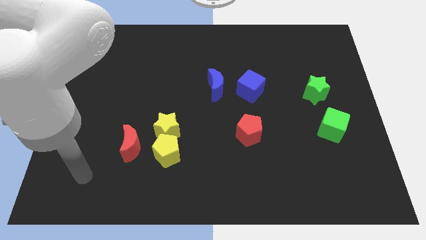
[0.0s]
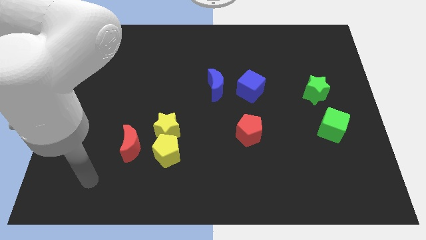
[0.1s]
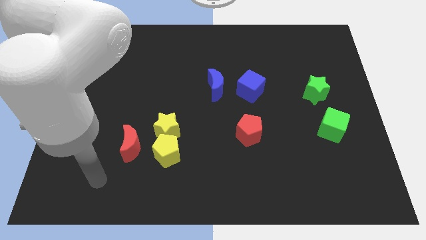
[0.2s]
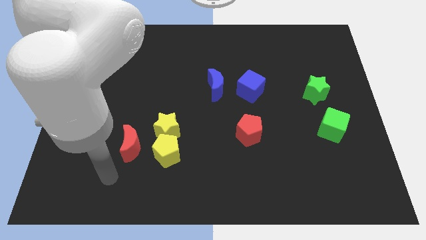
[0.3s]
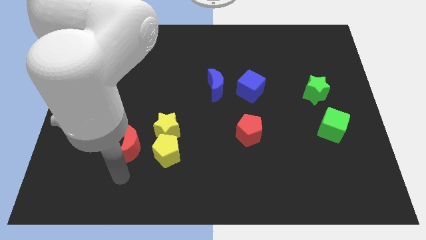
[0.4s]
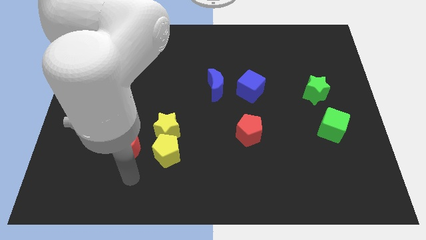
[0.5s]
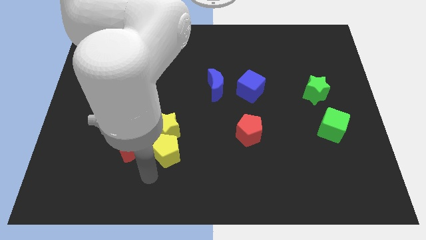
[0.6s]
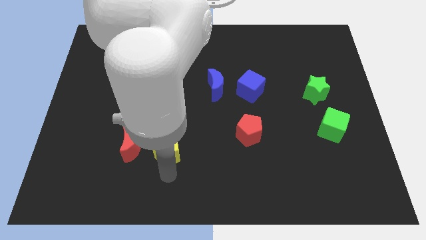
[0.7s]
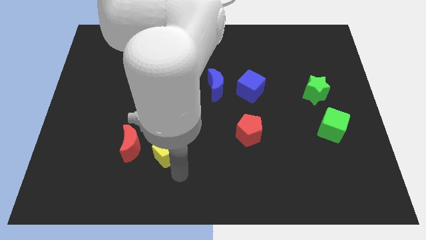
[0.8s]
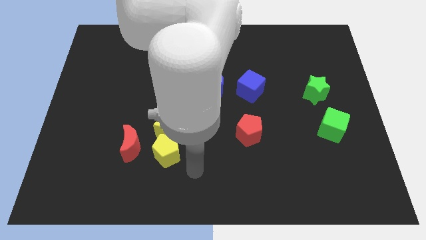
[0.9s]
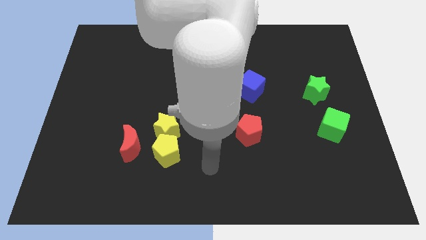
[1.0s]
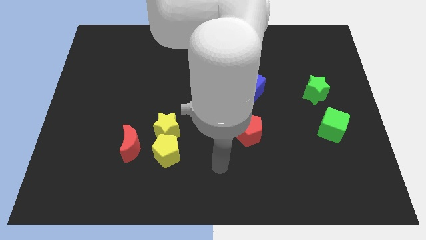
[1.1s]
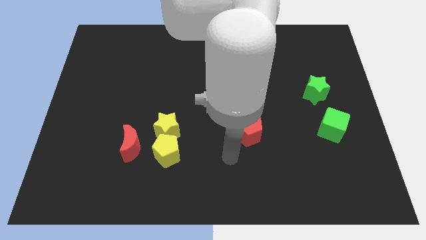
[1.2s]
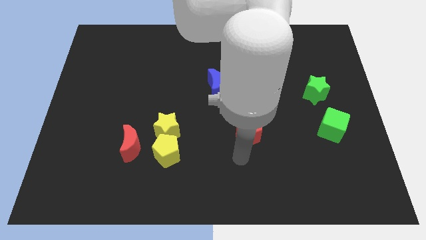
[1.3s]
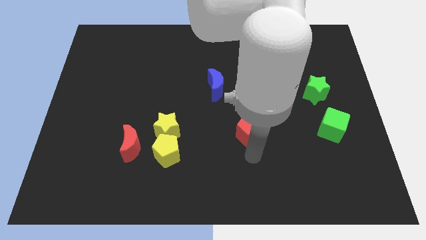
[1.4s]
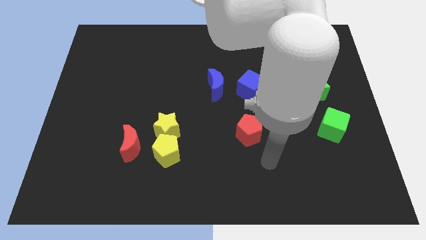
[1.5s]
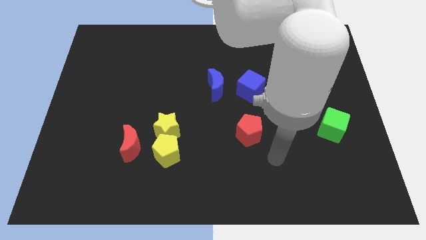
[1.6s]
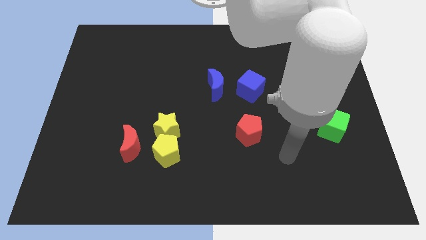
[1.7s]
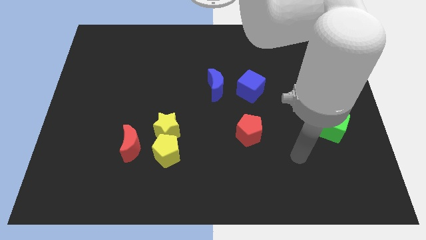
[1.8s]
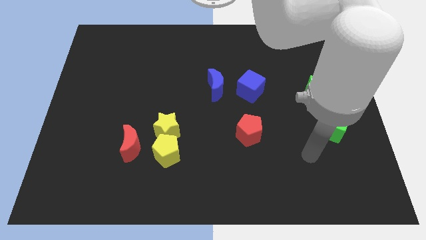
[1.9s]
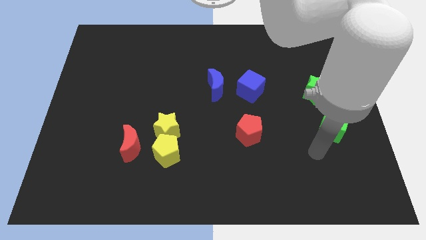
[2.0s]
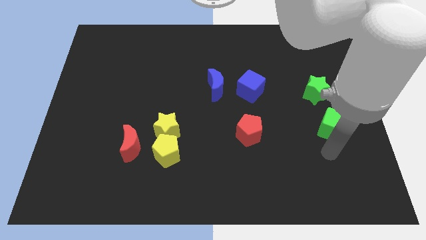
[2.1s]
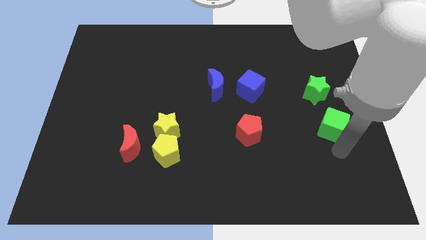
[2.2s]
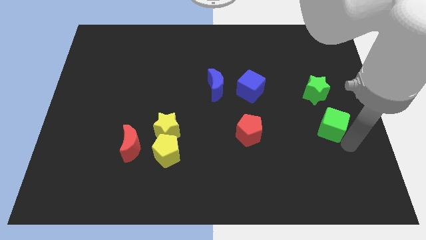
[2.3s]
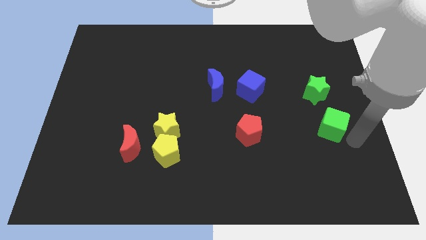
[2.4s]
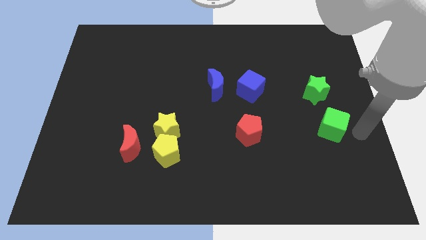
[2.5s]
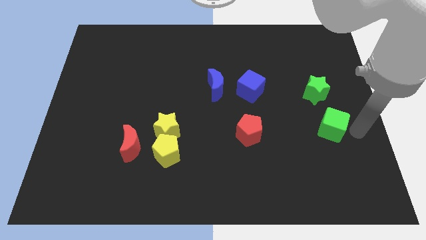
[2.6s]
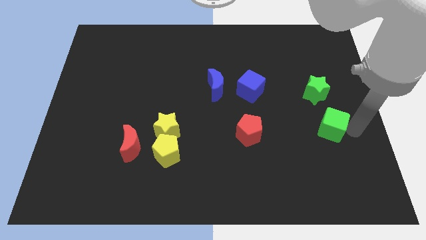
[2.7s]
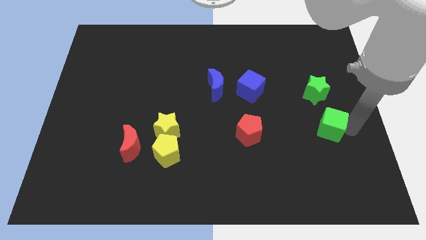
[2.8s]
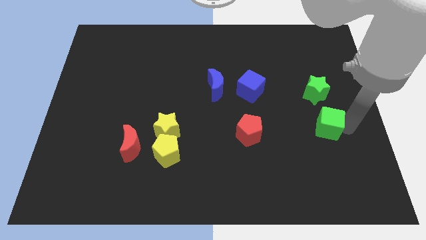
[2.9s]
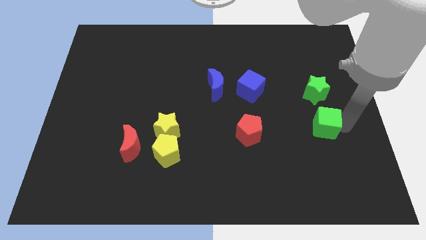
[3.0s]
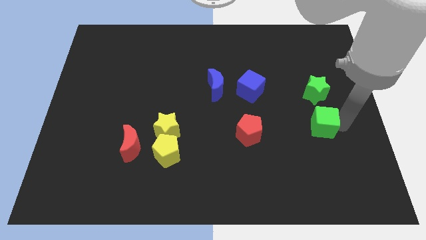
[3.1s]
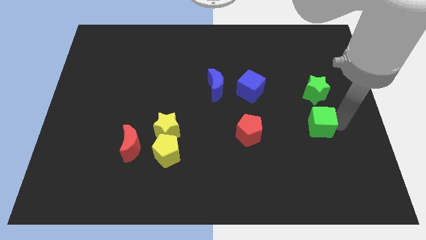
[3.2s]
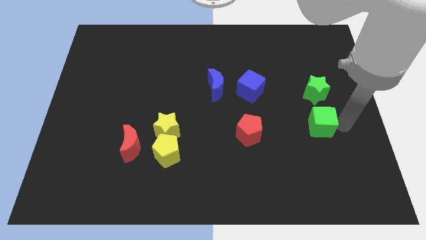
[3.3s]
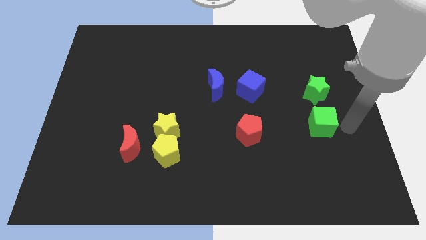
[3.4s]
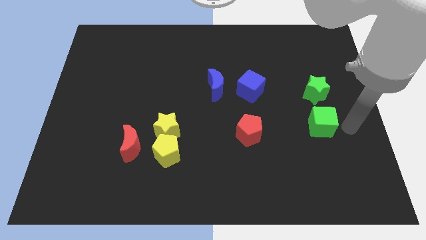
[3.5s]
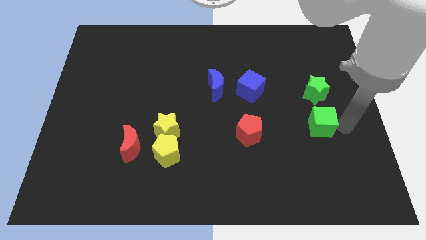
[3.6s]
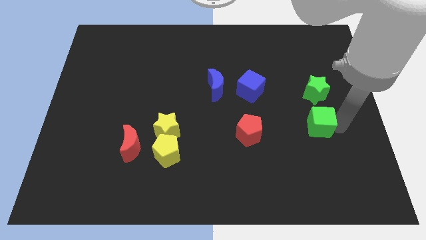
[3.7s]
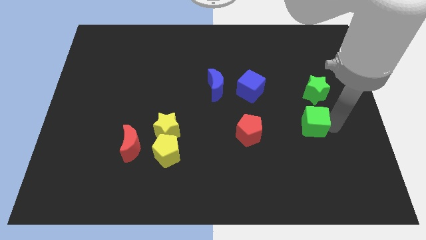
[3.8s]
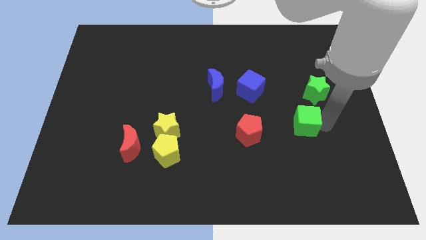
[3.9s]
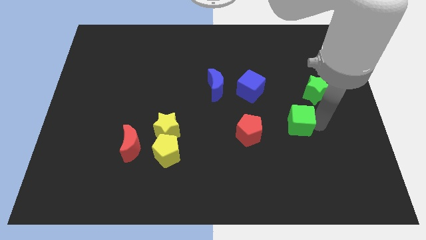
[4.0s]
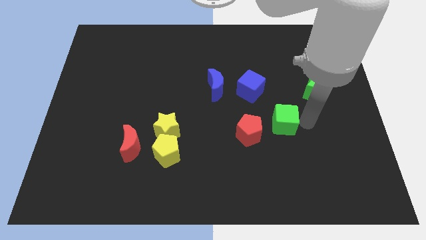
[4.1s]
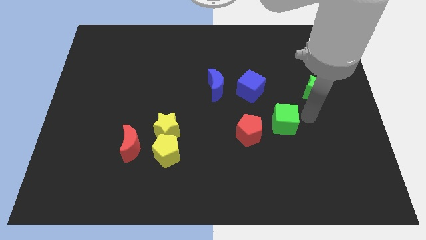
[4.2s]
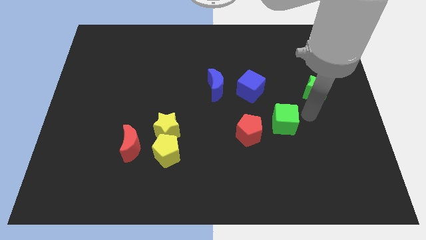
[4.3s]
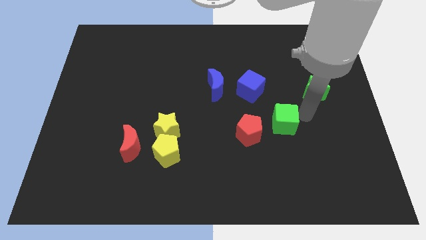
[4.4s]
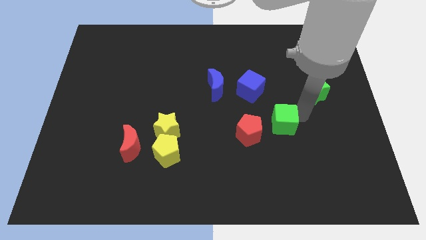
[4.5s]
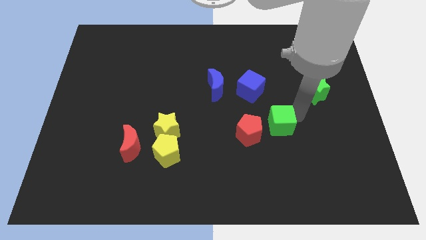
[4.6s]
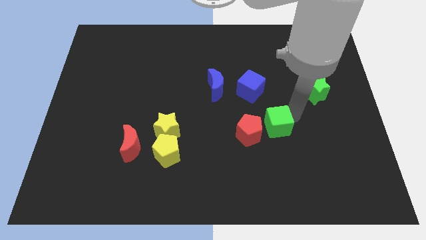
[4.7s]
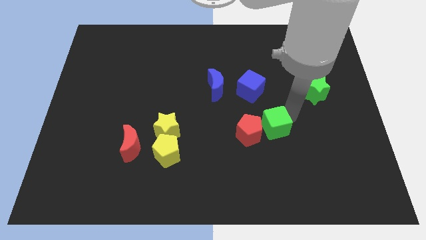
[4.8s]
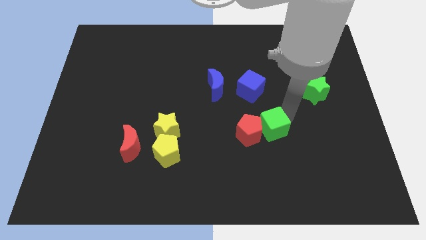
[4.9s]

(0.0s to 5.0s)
move the green cube towards the red pentagon

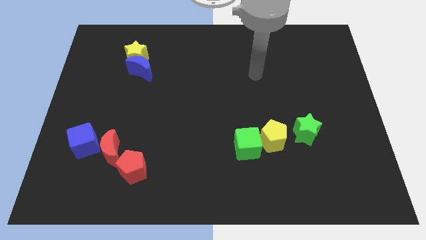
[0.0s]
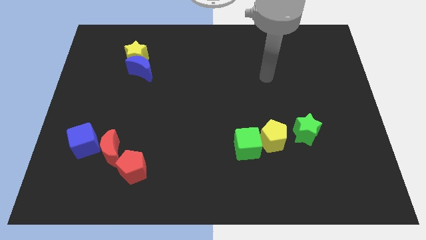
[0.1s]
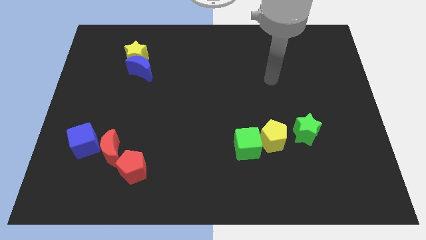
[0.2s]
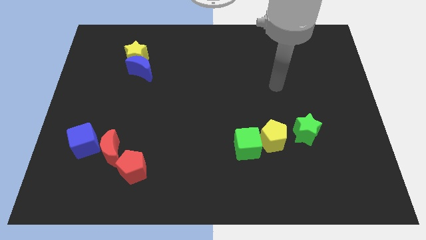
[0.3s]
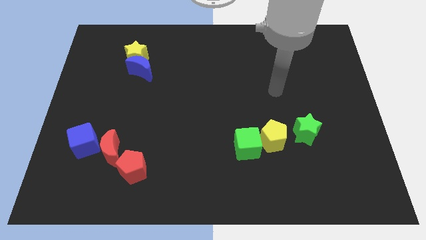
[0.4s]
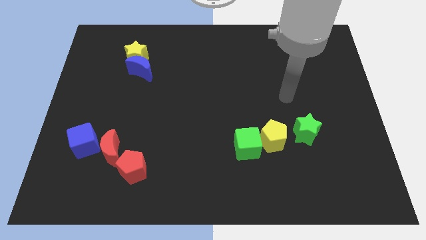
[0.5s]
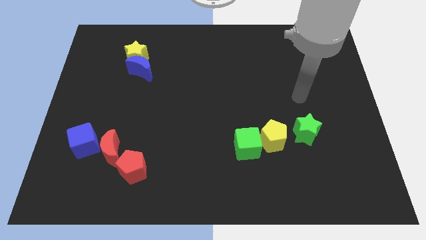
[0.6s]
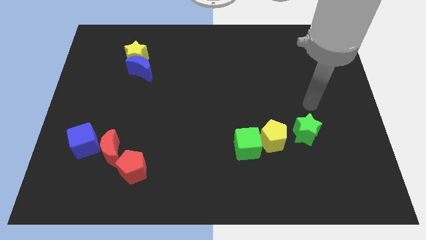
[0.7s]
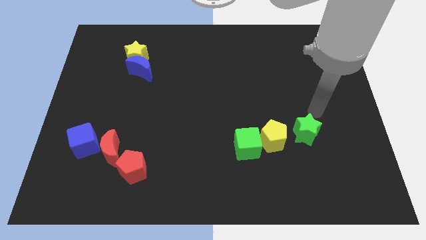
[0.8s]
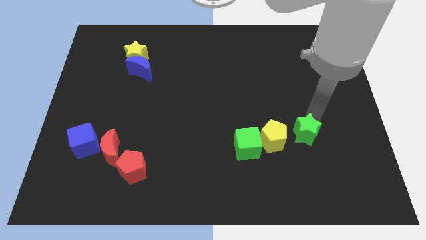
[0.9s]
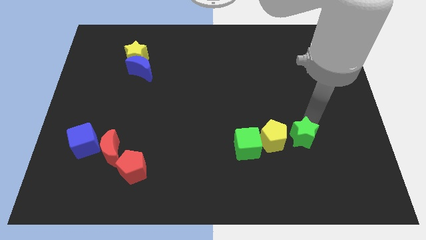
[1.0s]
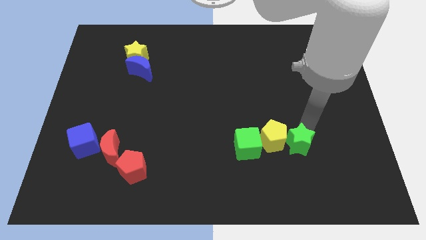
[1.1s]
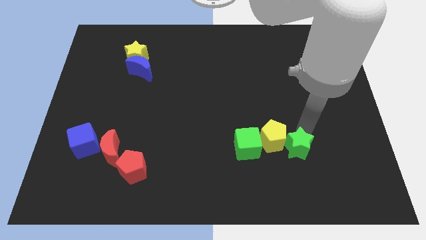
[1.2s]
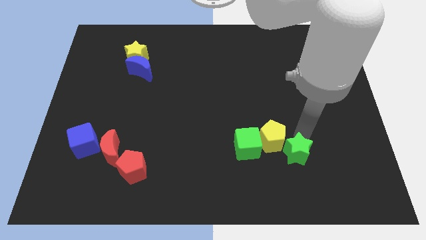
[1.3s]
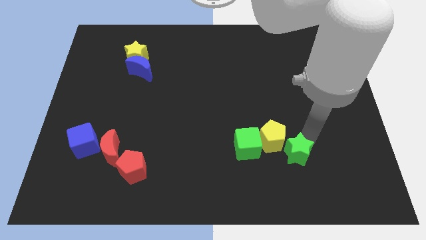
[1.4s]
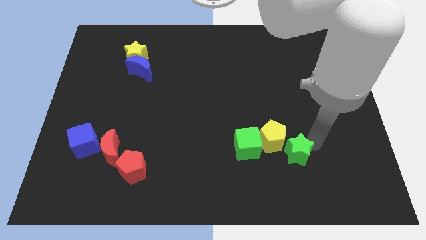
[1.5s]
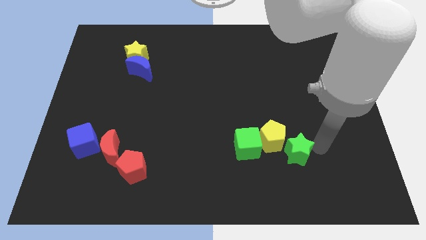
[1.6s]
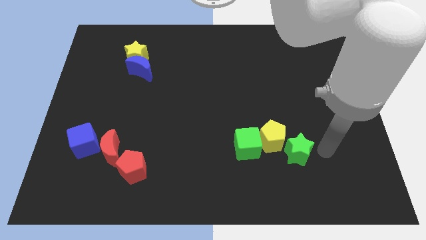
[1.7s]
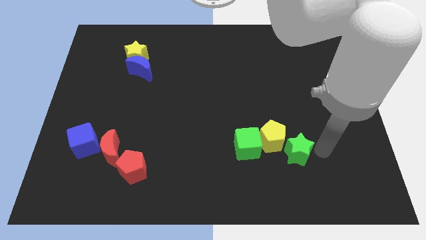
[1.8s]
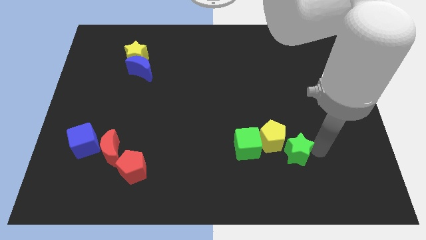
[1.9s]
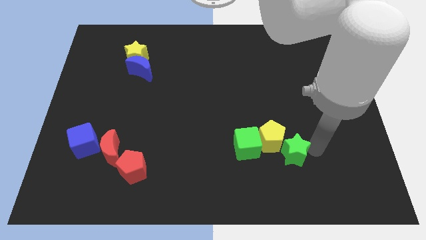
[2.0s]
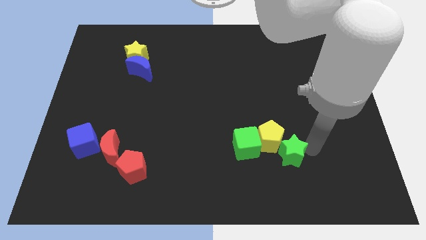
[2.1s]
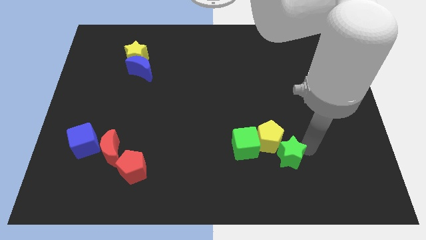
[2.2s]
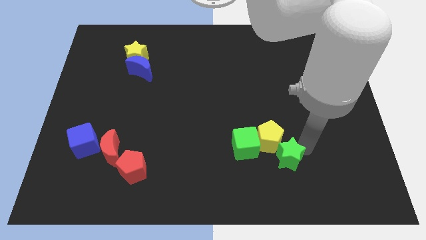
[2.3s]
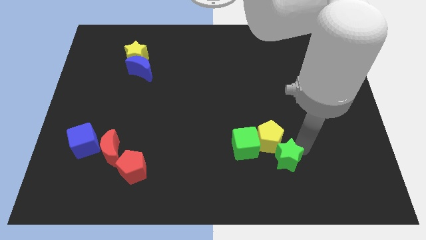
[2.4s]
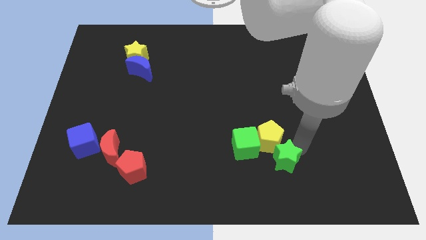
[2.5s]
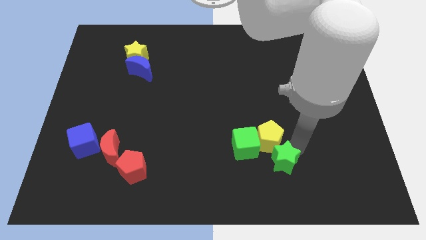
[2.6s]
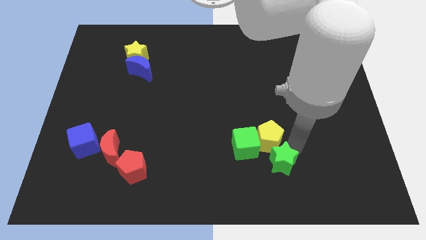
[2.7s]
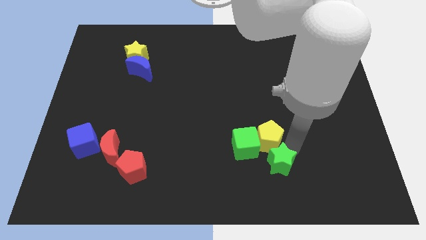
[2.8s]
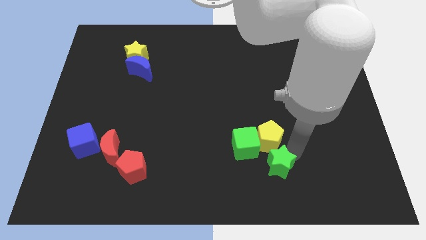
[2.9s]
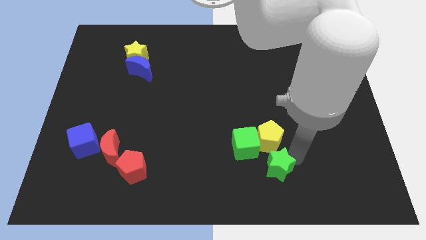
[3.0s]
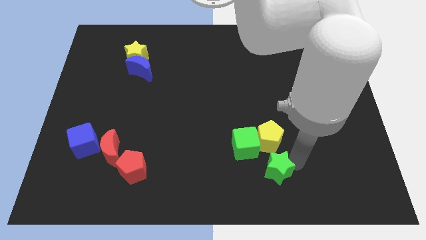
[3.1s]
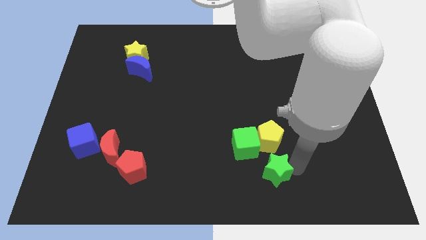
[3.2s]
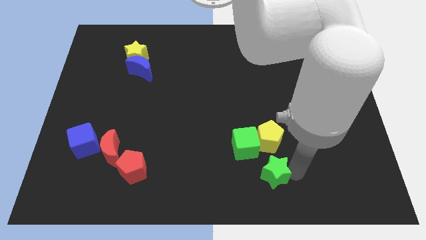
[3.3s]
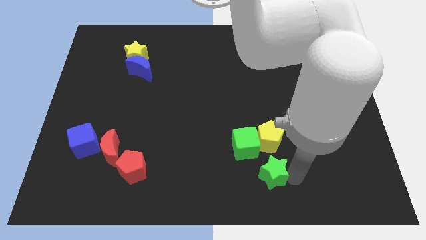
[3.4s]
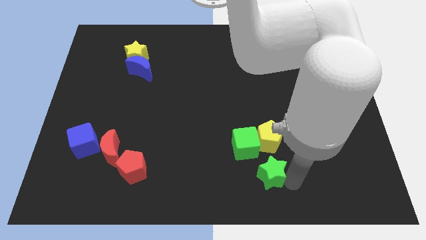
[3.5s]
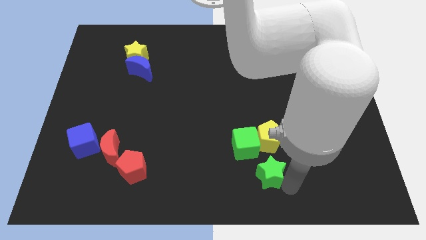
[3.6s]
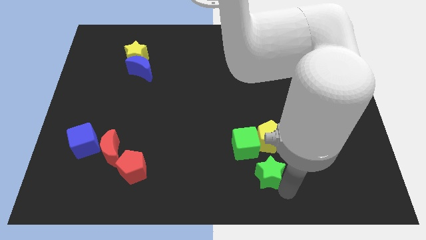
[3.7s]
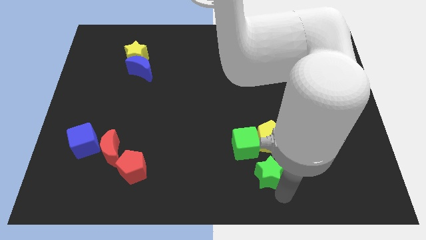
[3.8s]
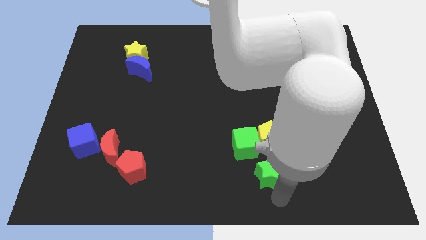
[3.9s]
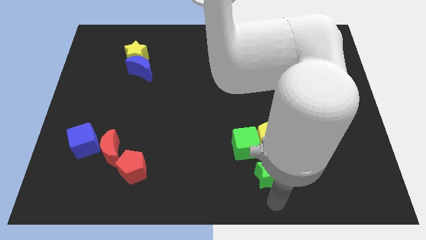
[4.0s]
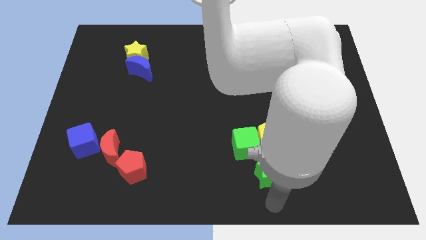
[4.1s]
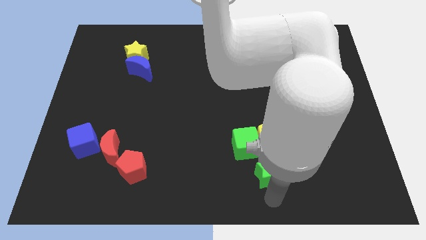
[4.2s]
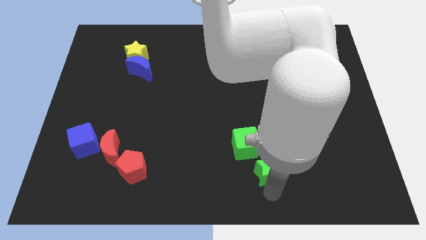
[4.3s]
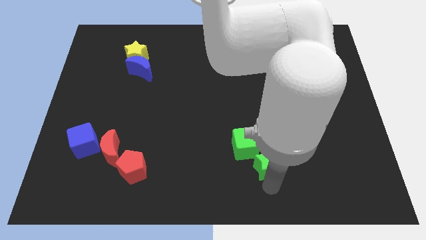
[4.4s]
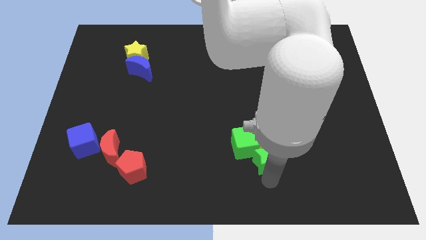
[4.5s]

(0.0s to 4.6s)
push the green star towards the green cube
